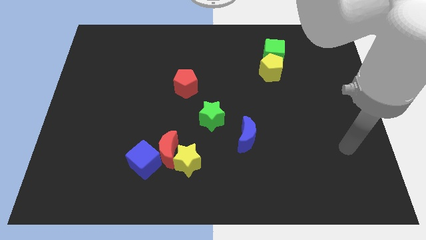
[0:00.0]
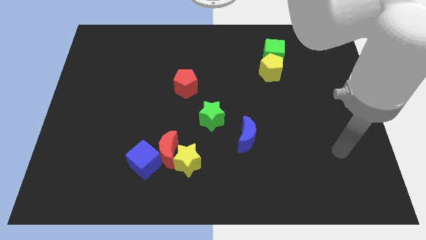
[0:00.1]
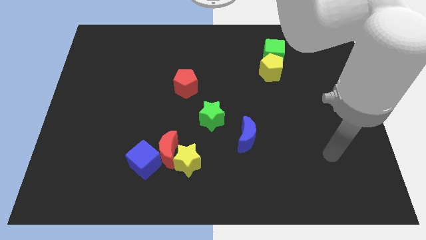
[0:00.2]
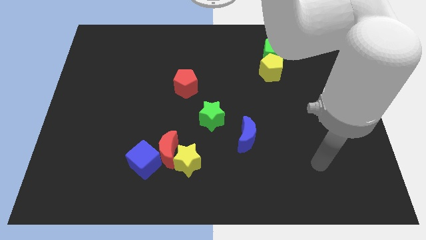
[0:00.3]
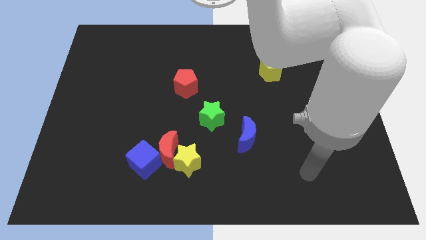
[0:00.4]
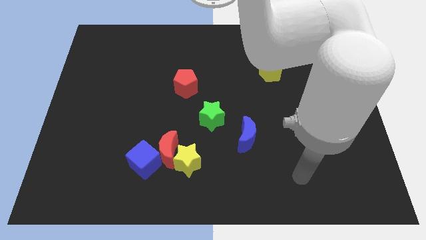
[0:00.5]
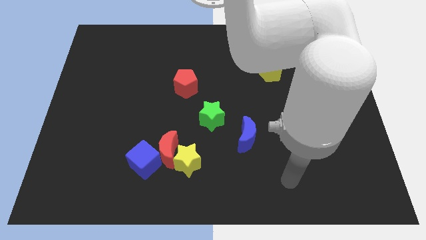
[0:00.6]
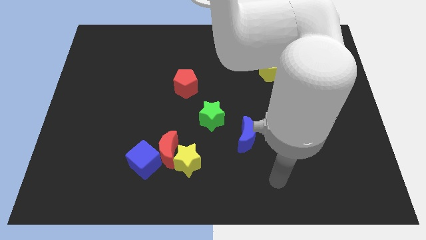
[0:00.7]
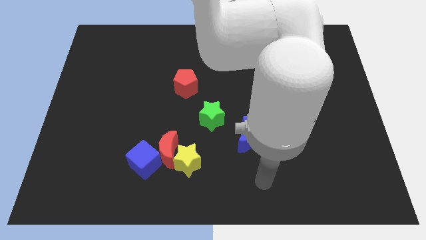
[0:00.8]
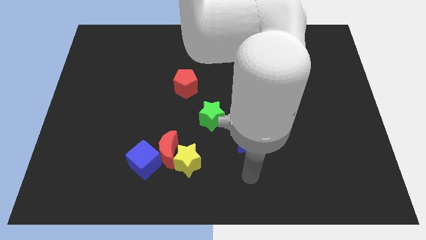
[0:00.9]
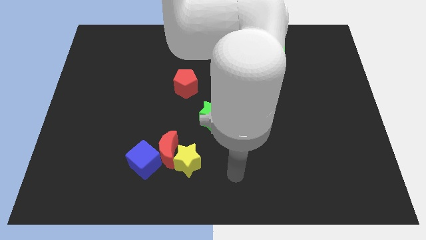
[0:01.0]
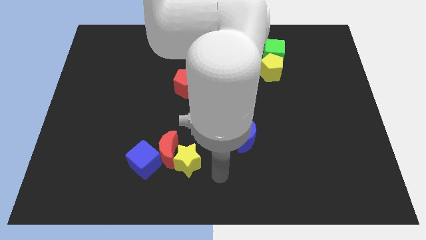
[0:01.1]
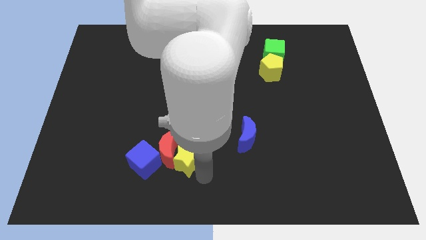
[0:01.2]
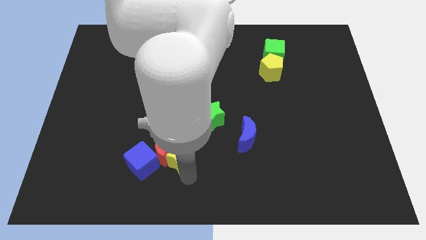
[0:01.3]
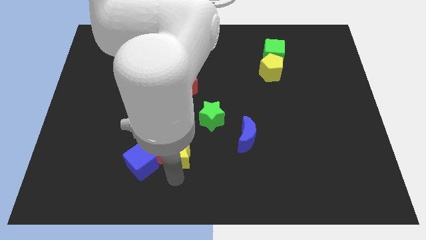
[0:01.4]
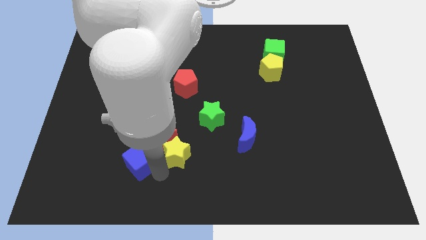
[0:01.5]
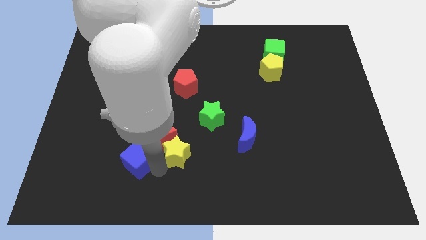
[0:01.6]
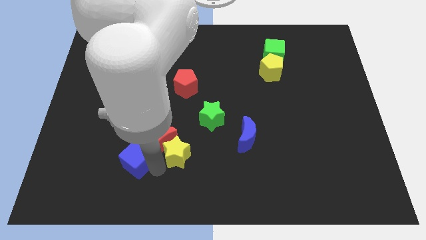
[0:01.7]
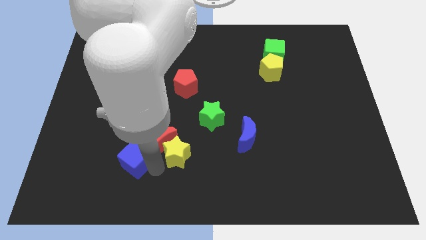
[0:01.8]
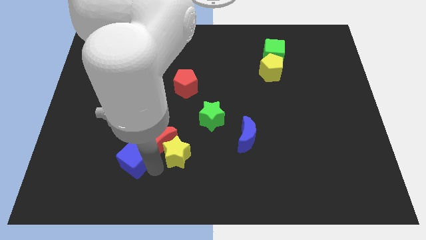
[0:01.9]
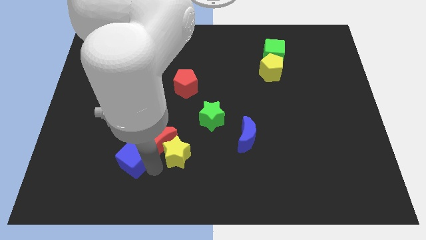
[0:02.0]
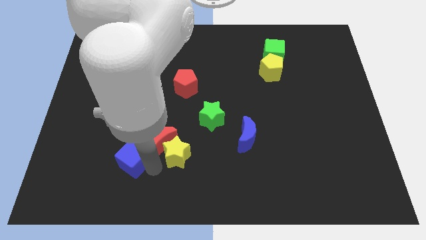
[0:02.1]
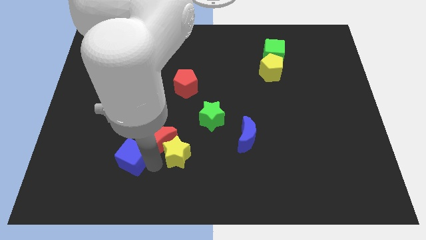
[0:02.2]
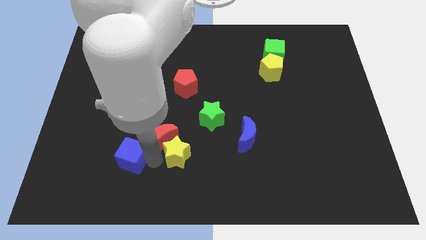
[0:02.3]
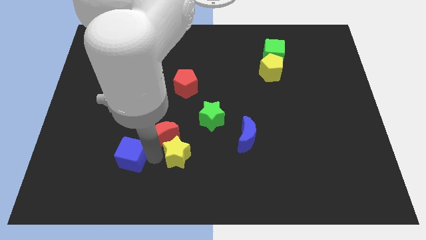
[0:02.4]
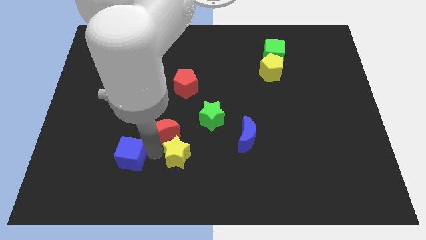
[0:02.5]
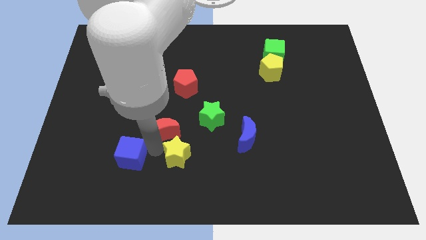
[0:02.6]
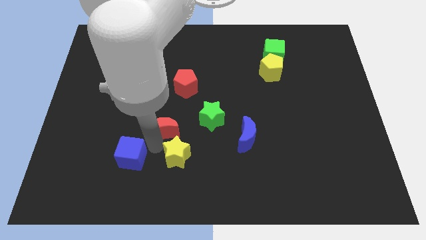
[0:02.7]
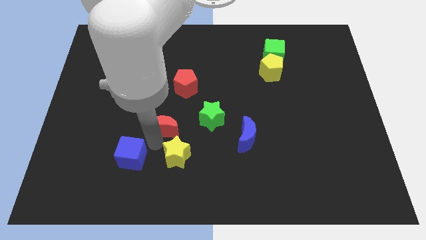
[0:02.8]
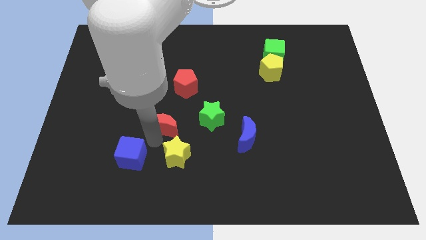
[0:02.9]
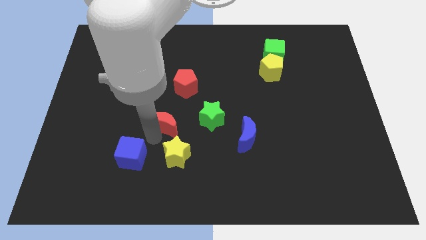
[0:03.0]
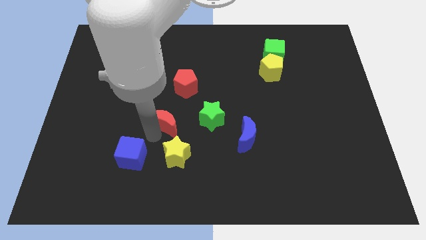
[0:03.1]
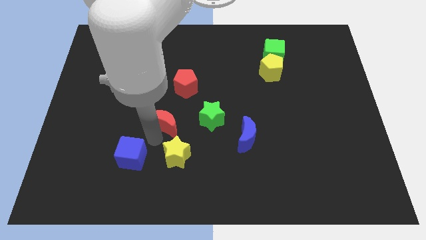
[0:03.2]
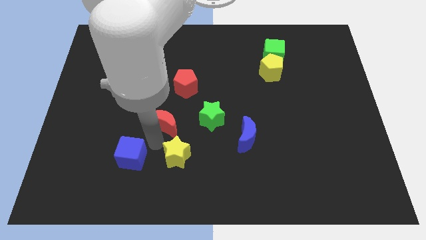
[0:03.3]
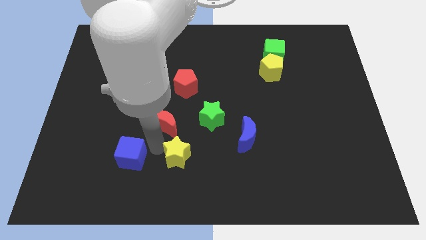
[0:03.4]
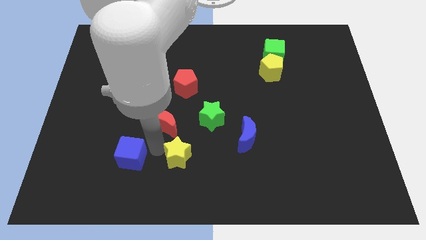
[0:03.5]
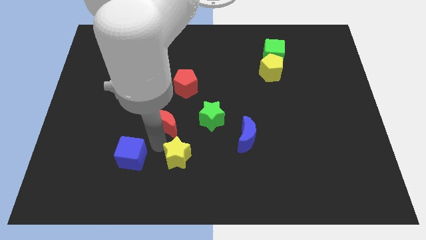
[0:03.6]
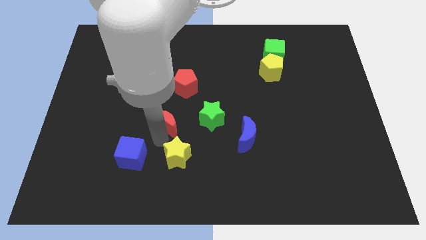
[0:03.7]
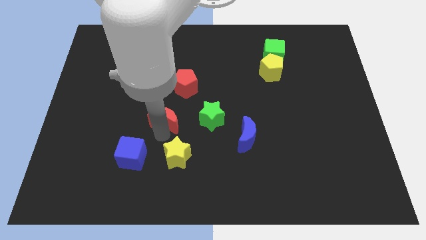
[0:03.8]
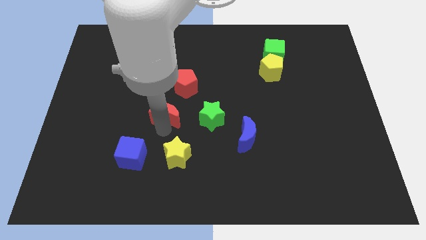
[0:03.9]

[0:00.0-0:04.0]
separate the red moon from the yellow star and blue cube

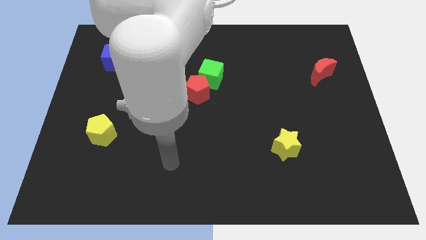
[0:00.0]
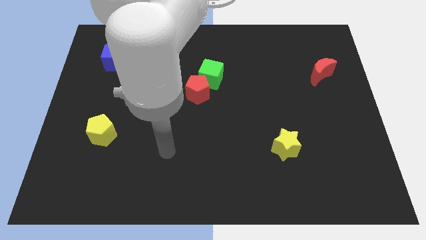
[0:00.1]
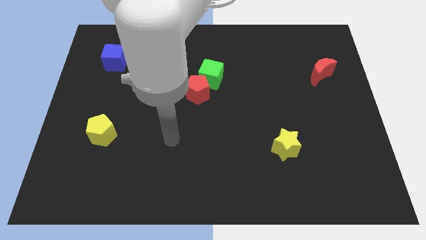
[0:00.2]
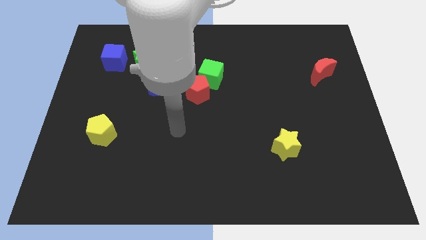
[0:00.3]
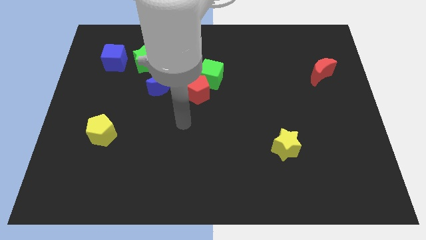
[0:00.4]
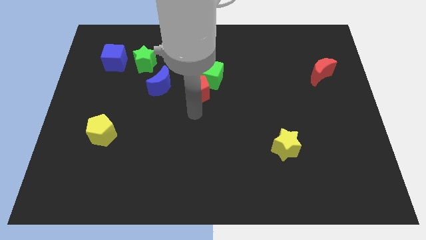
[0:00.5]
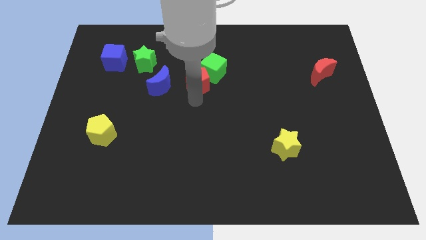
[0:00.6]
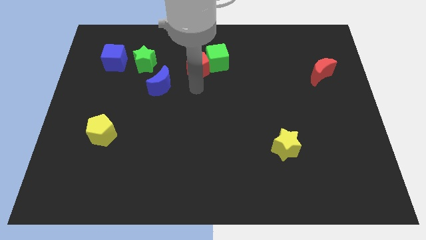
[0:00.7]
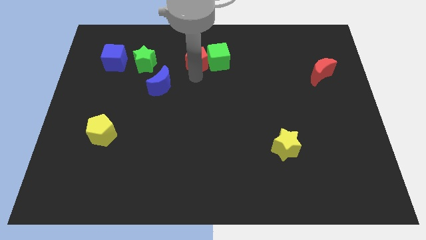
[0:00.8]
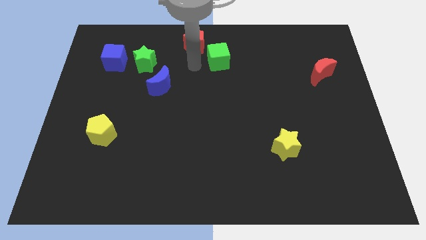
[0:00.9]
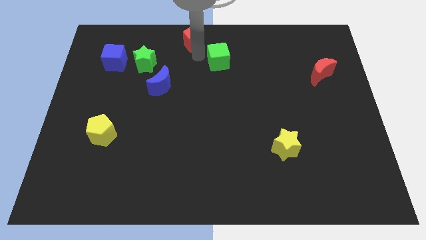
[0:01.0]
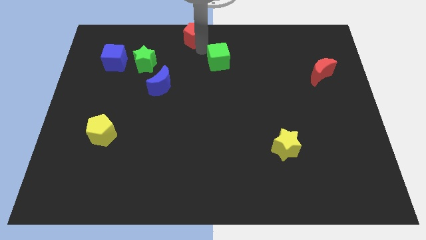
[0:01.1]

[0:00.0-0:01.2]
move the green cube away from the red pentagon

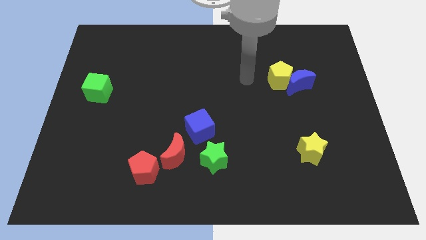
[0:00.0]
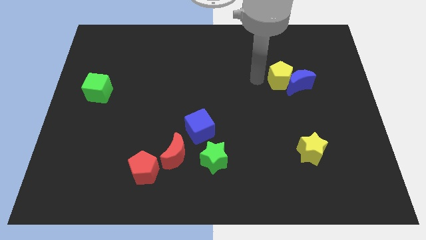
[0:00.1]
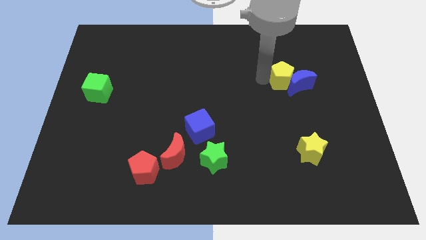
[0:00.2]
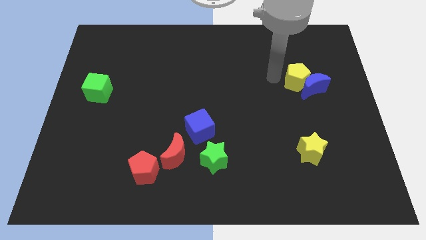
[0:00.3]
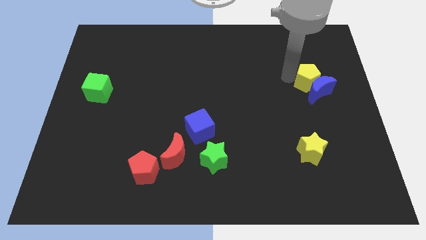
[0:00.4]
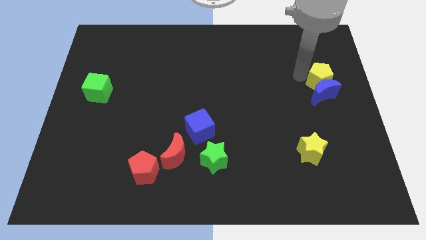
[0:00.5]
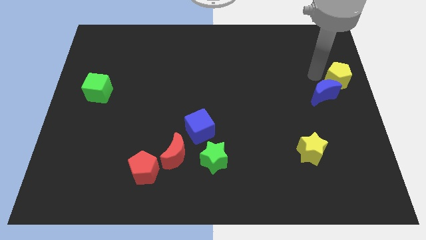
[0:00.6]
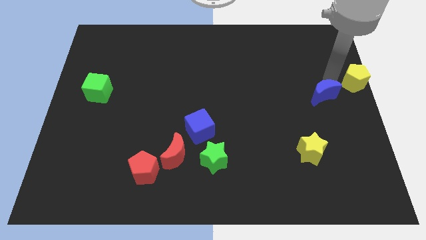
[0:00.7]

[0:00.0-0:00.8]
separate the blue moon from the yellow pentagon

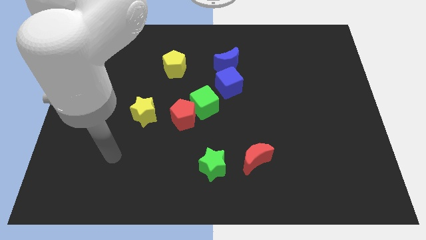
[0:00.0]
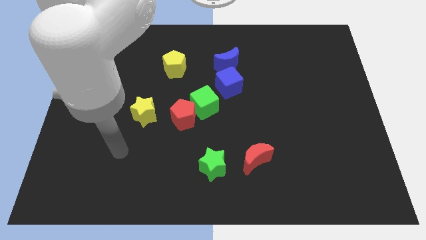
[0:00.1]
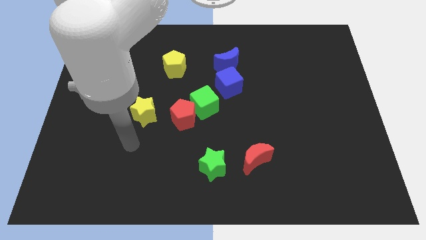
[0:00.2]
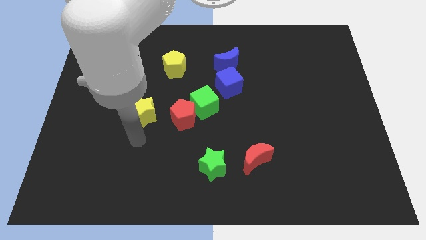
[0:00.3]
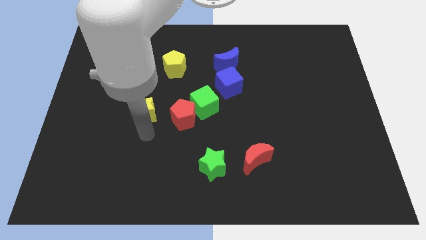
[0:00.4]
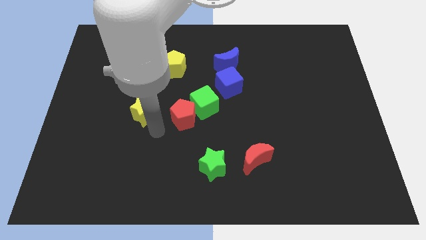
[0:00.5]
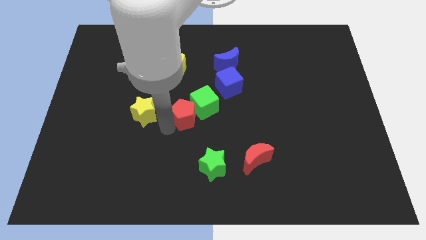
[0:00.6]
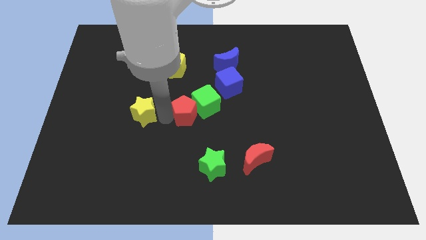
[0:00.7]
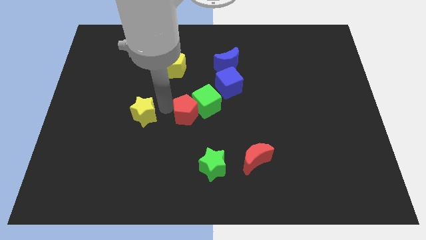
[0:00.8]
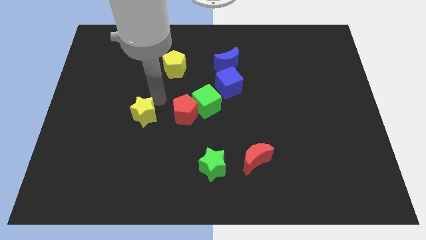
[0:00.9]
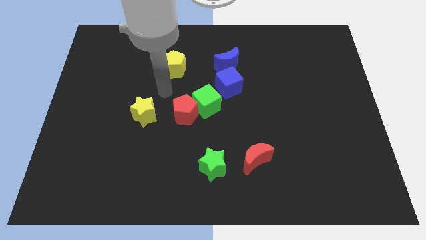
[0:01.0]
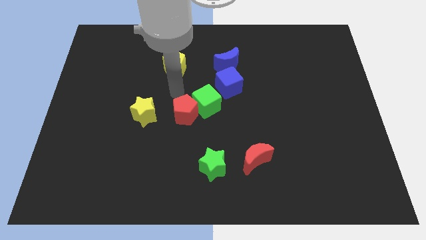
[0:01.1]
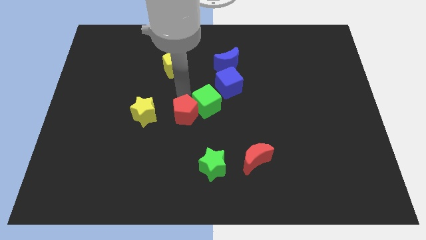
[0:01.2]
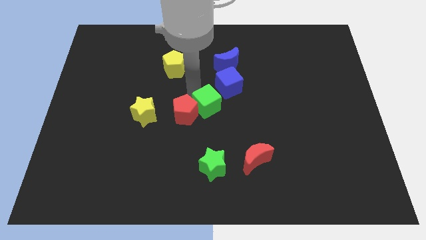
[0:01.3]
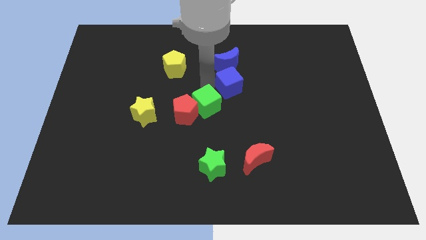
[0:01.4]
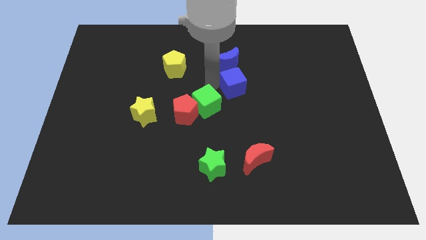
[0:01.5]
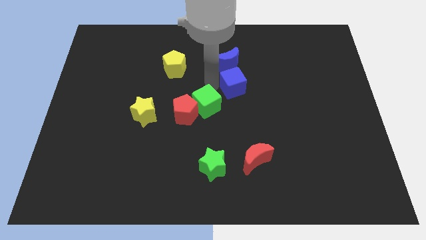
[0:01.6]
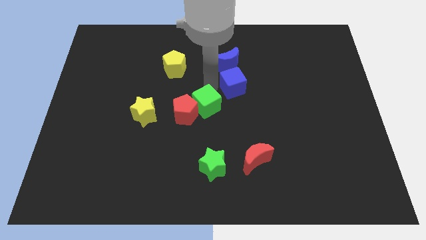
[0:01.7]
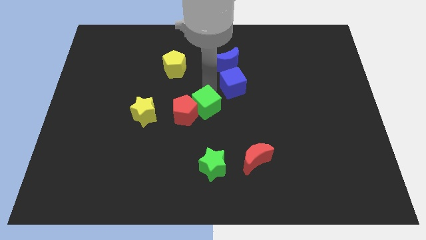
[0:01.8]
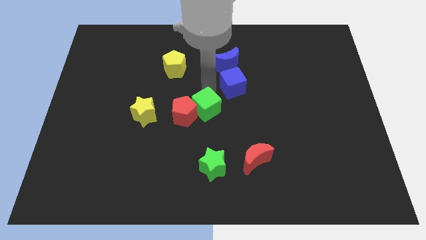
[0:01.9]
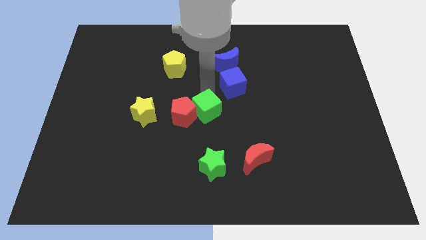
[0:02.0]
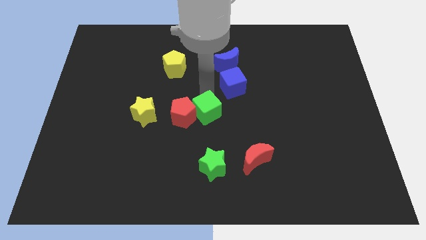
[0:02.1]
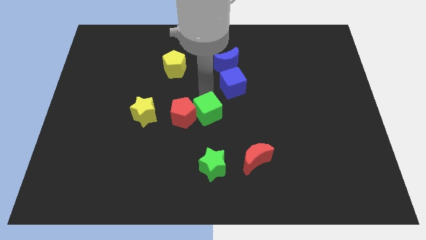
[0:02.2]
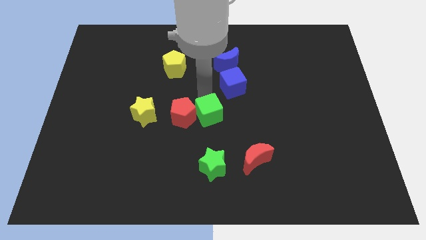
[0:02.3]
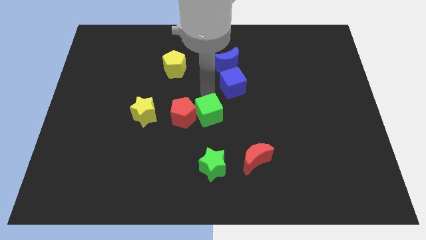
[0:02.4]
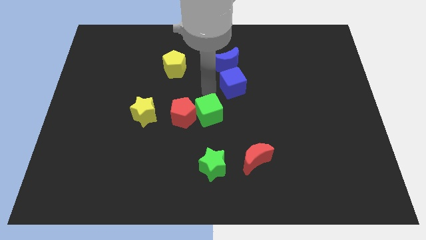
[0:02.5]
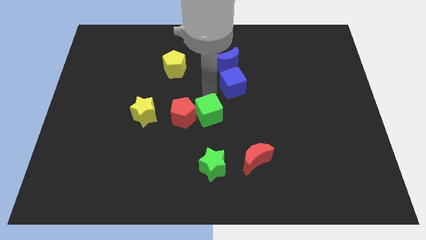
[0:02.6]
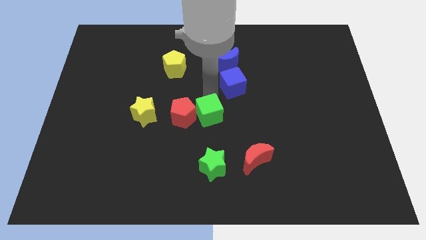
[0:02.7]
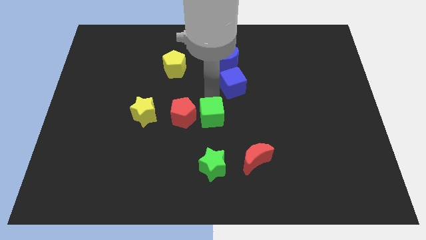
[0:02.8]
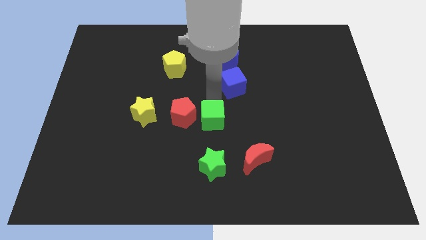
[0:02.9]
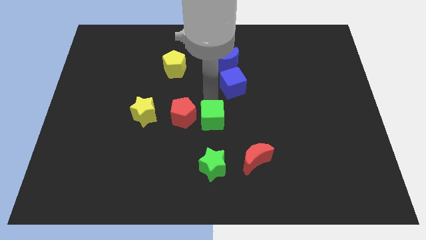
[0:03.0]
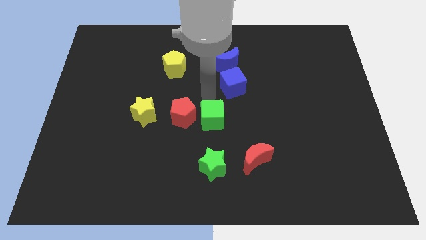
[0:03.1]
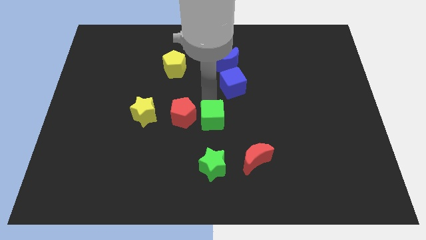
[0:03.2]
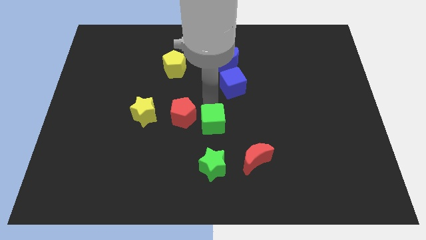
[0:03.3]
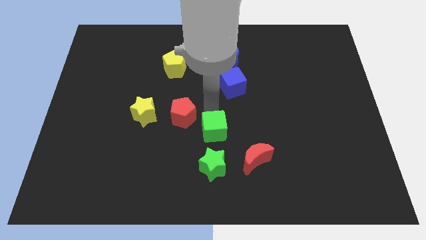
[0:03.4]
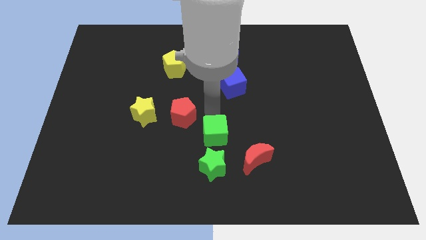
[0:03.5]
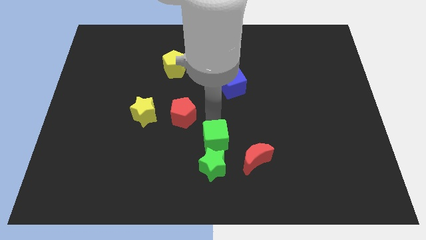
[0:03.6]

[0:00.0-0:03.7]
pull the green cube apart from the red pentagon and blue cube
